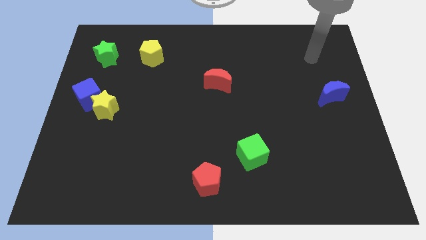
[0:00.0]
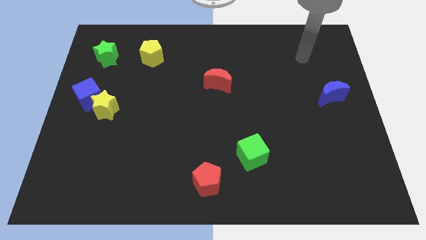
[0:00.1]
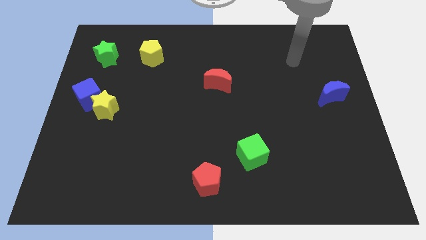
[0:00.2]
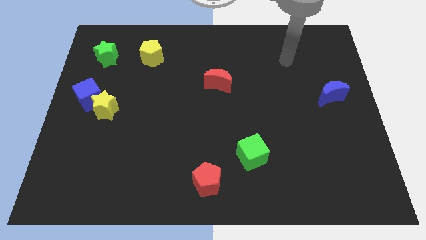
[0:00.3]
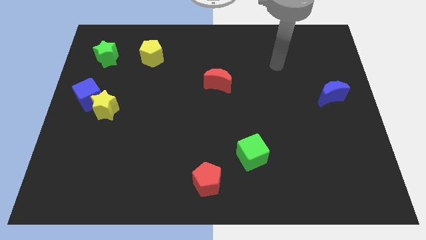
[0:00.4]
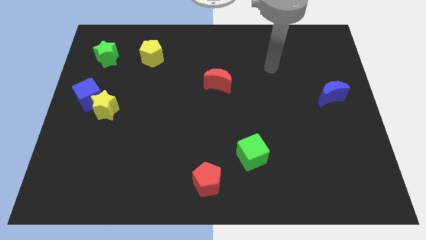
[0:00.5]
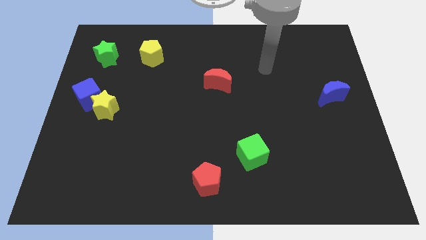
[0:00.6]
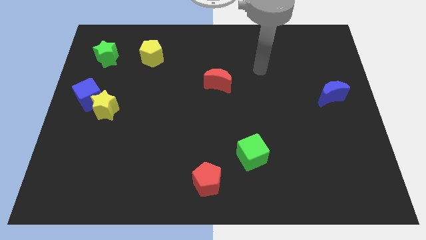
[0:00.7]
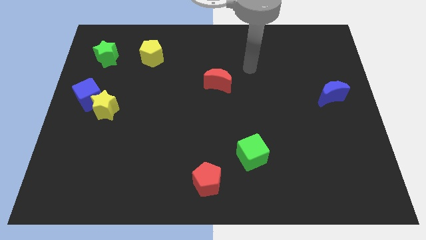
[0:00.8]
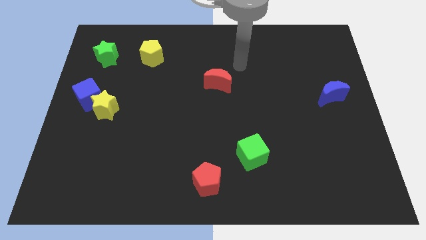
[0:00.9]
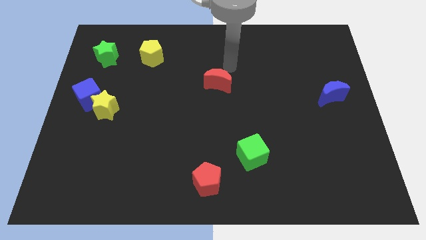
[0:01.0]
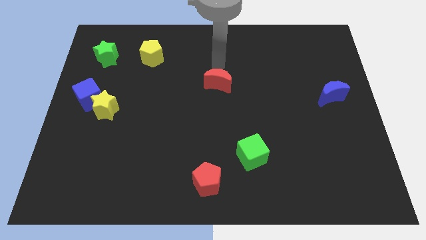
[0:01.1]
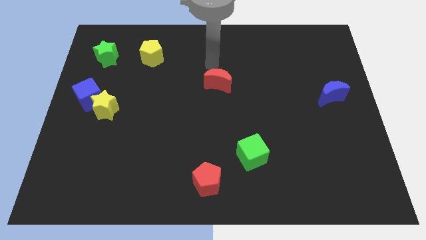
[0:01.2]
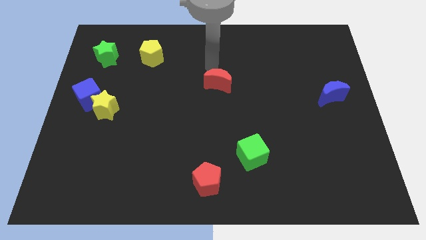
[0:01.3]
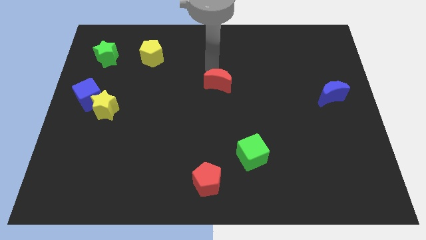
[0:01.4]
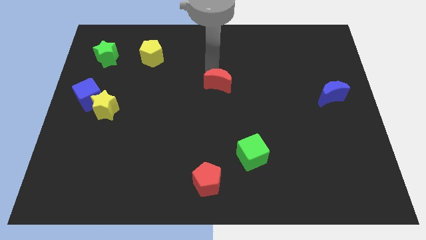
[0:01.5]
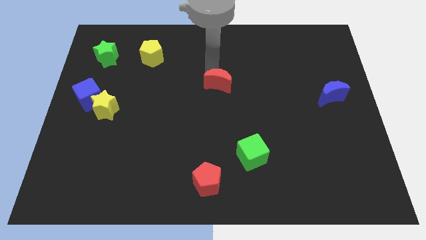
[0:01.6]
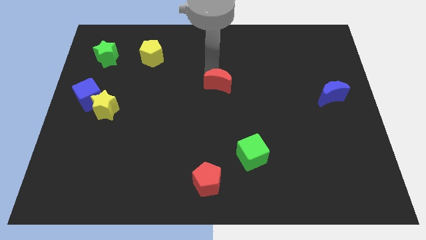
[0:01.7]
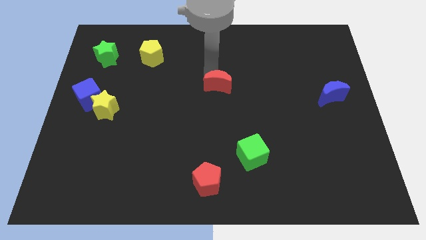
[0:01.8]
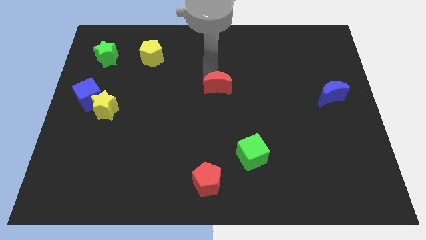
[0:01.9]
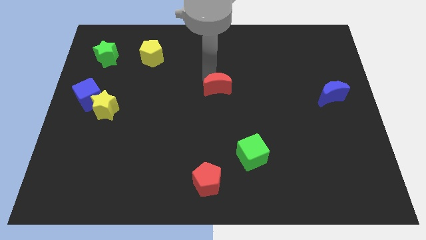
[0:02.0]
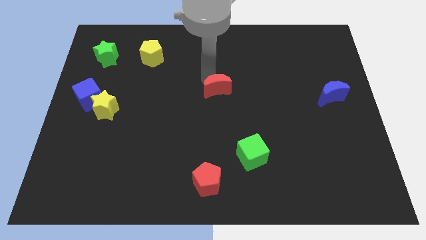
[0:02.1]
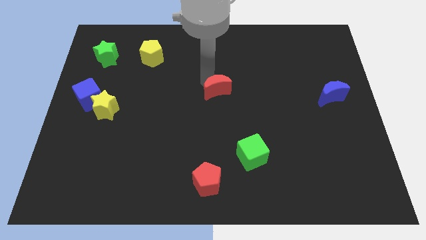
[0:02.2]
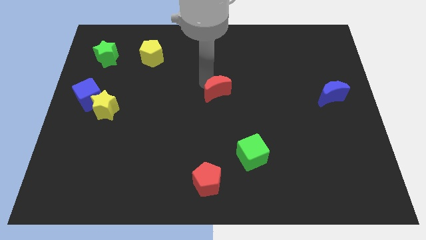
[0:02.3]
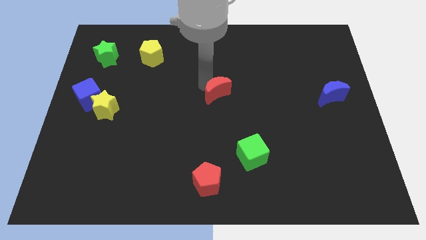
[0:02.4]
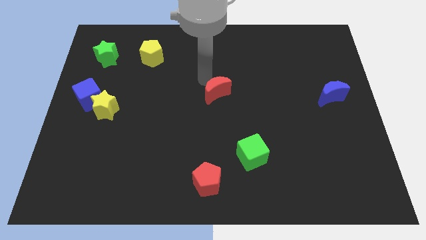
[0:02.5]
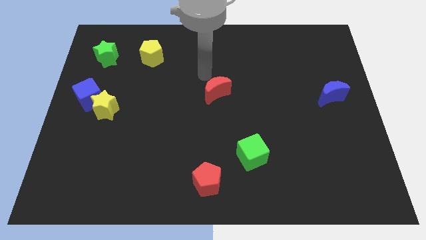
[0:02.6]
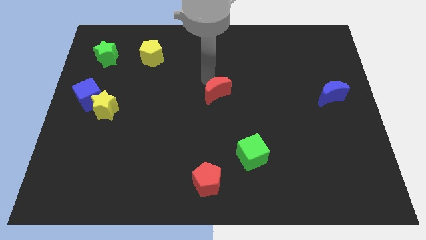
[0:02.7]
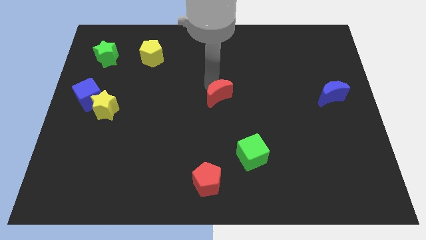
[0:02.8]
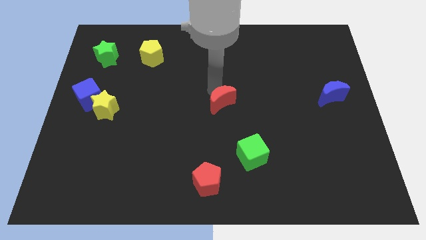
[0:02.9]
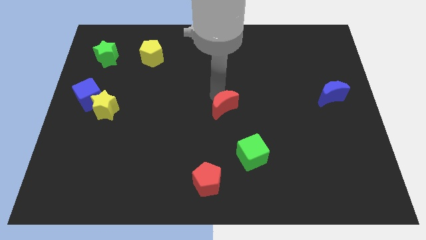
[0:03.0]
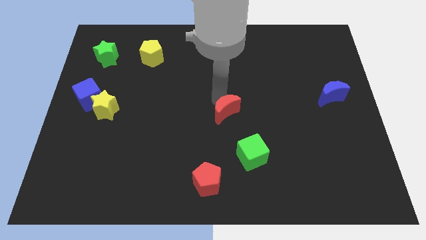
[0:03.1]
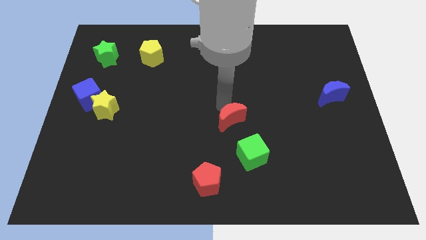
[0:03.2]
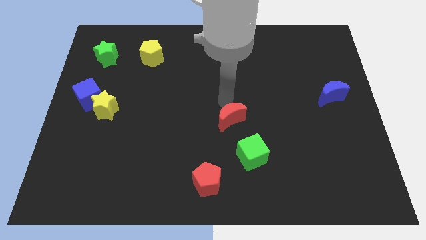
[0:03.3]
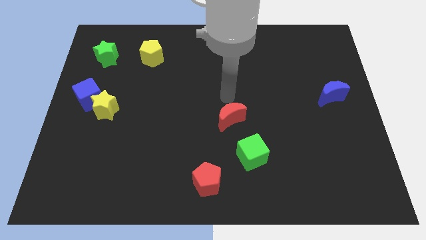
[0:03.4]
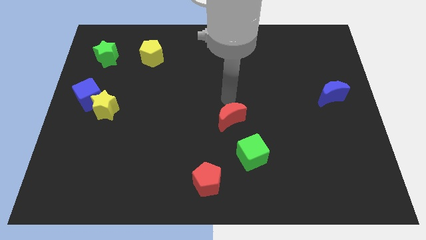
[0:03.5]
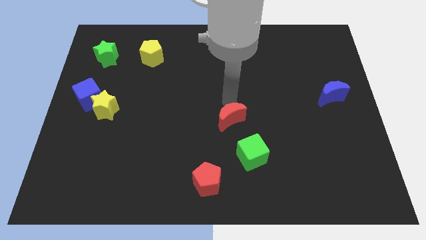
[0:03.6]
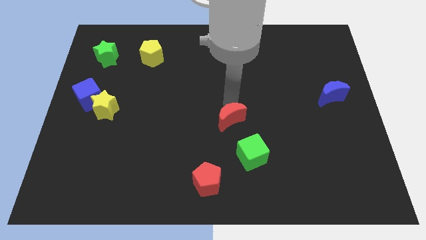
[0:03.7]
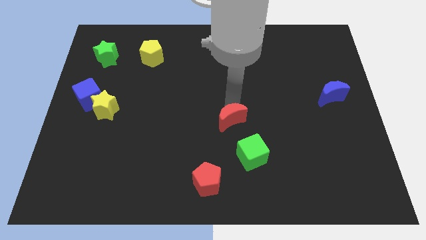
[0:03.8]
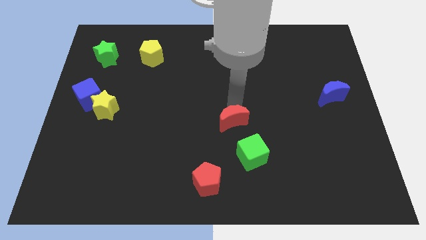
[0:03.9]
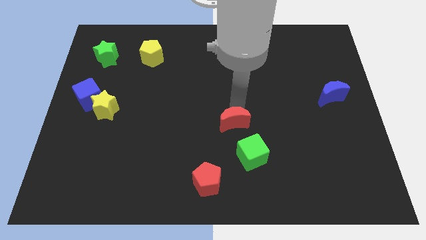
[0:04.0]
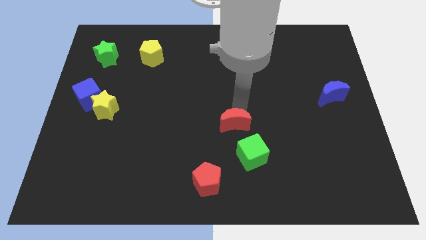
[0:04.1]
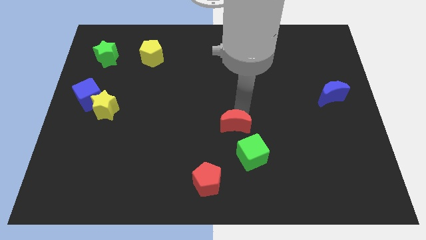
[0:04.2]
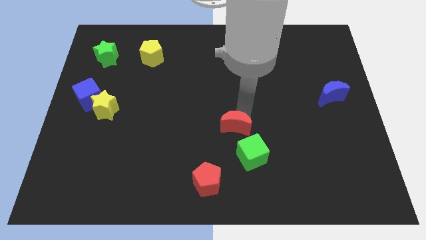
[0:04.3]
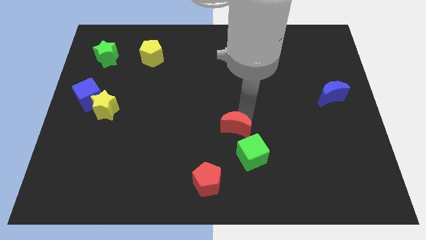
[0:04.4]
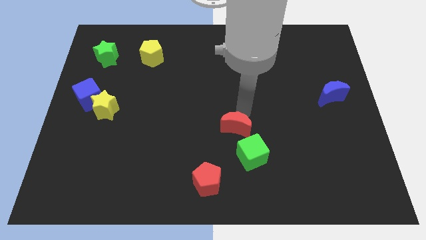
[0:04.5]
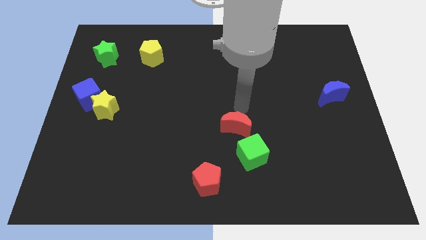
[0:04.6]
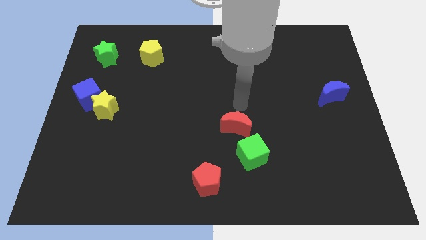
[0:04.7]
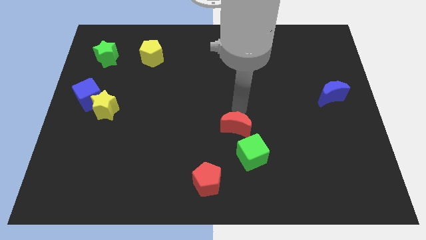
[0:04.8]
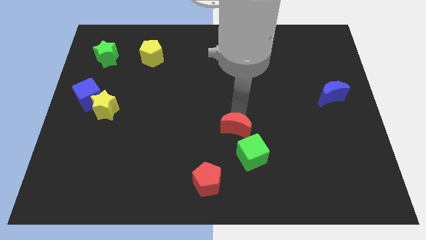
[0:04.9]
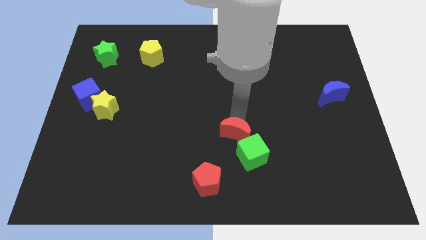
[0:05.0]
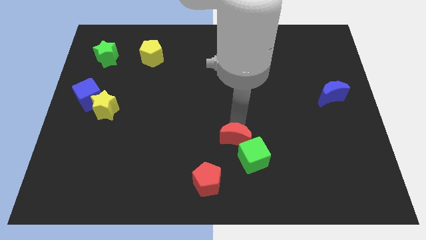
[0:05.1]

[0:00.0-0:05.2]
move the red moon diagonally up and to the right of the red pentagon

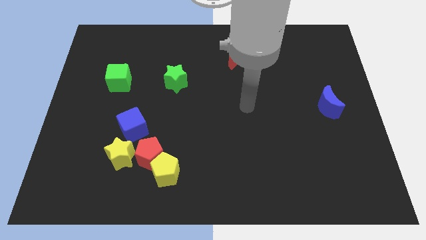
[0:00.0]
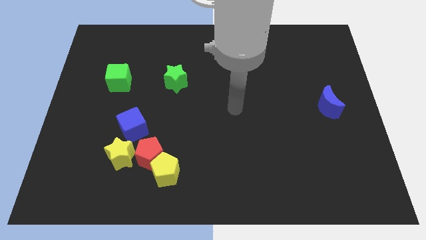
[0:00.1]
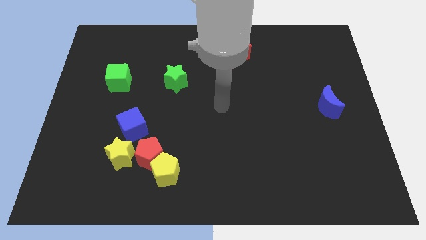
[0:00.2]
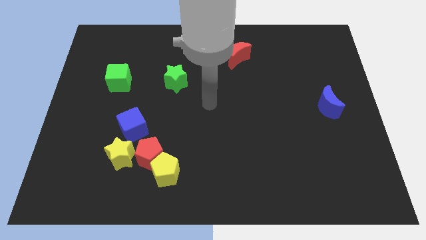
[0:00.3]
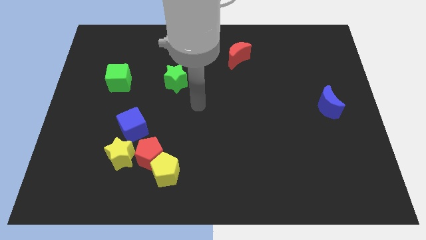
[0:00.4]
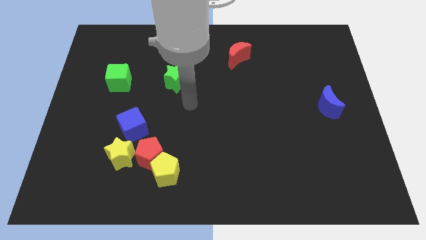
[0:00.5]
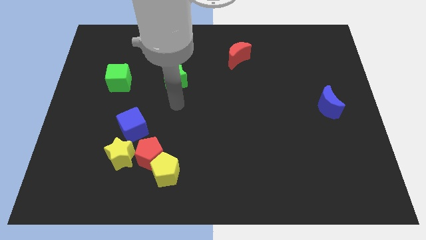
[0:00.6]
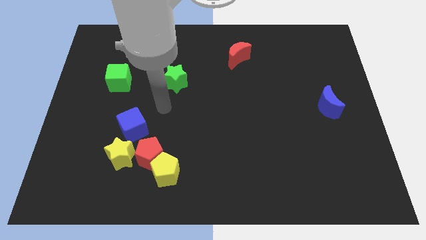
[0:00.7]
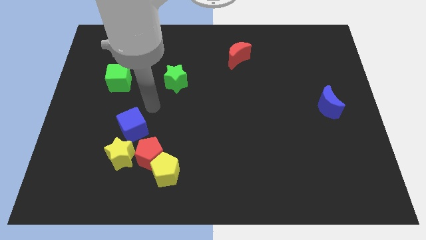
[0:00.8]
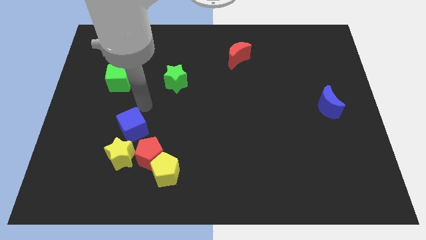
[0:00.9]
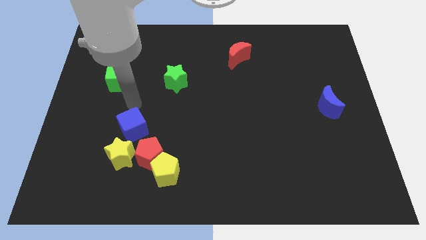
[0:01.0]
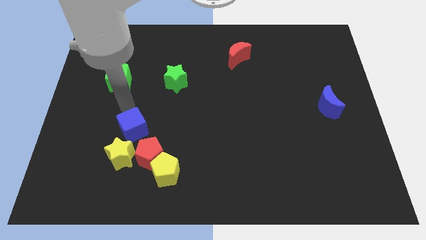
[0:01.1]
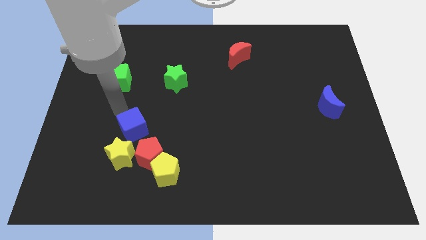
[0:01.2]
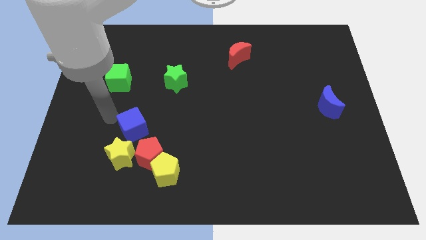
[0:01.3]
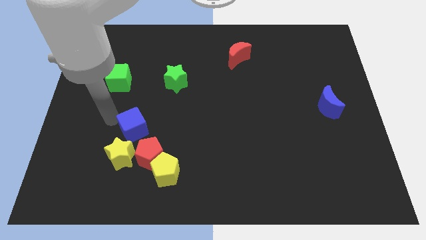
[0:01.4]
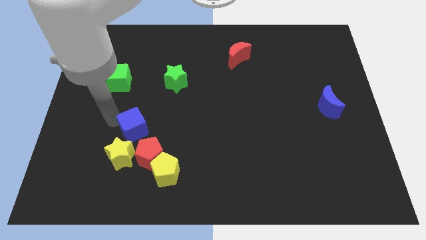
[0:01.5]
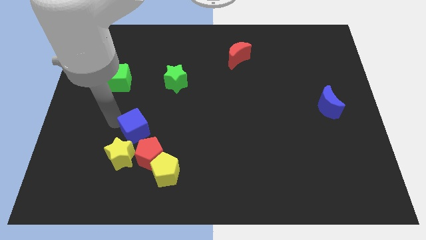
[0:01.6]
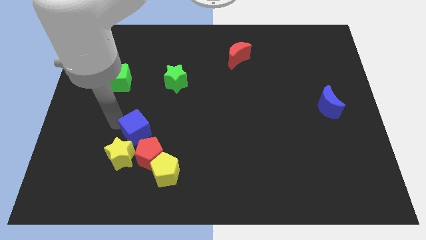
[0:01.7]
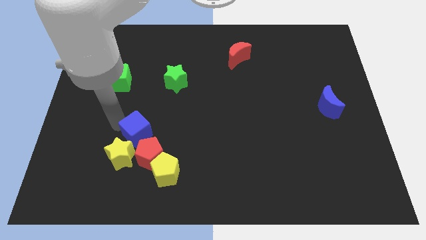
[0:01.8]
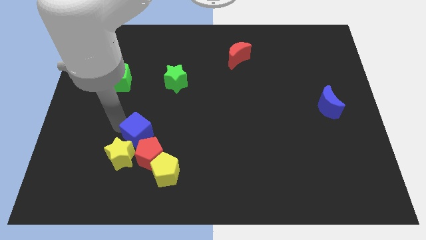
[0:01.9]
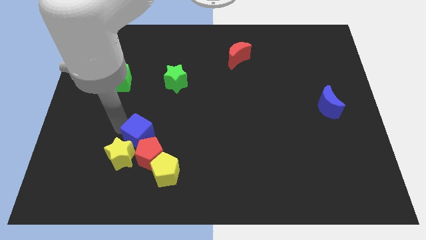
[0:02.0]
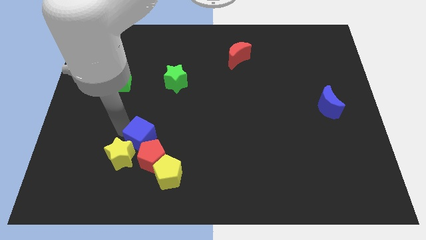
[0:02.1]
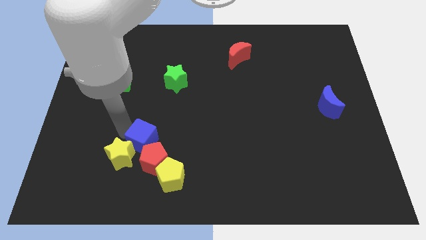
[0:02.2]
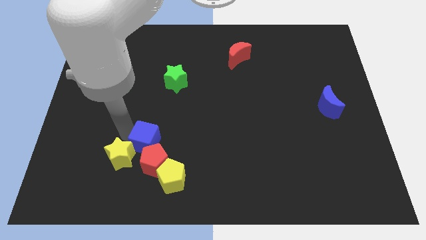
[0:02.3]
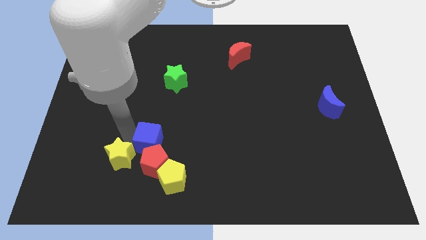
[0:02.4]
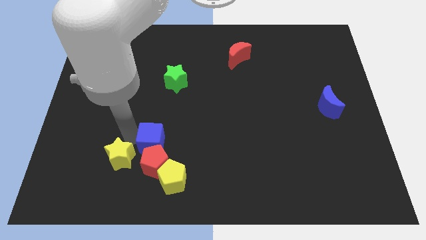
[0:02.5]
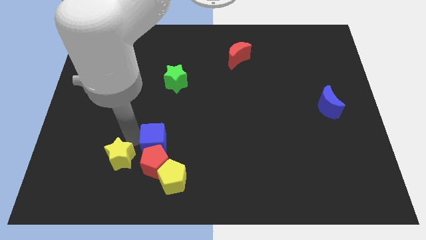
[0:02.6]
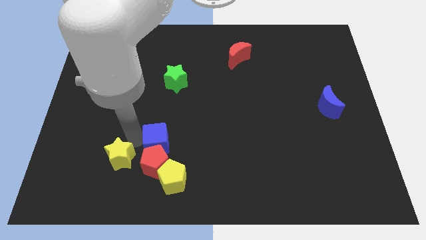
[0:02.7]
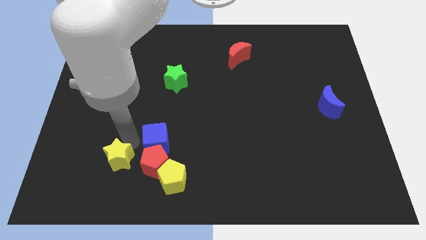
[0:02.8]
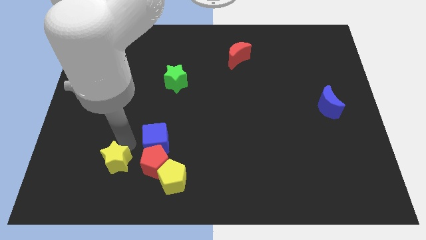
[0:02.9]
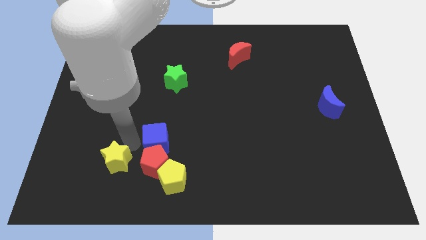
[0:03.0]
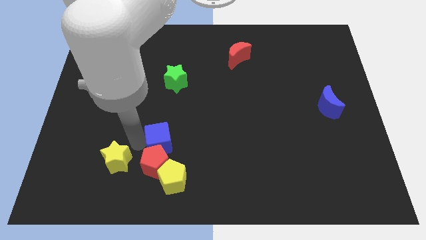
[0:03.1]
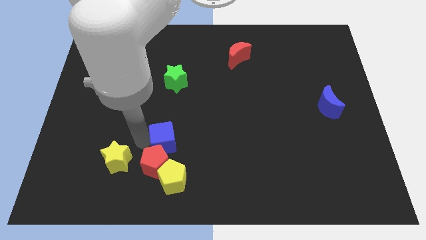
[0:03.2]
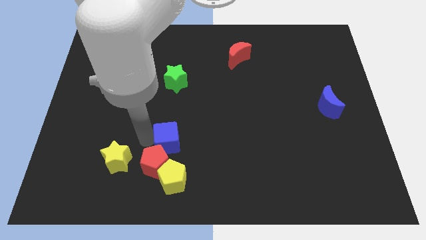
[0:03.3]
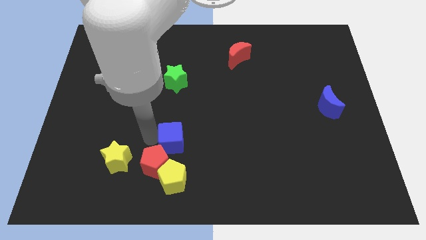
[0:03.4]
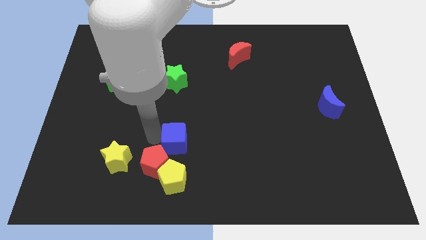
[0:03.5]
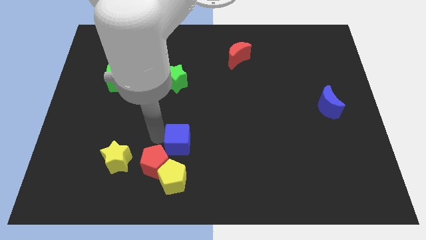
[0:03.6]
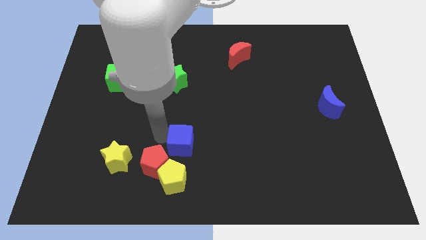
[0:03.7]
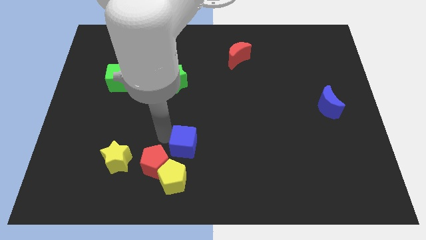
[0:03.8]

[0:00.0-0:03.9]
put the blue cube diagonally up and to the right of the yellow pentagon
